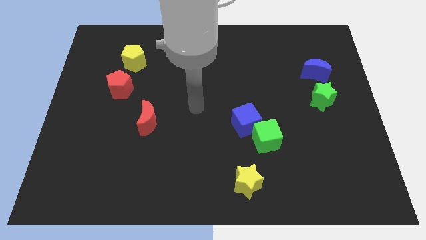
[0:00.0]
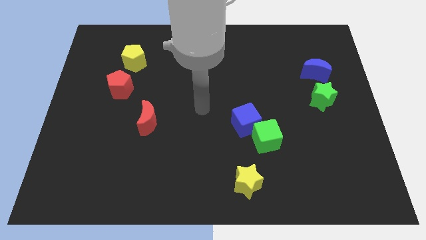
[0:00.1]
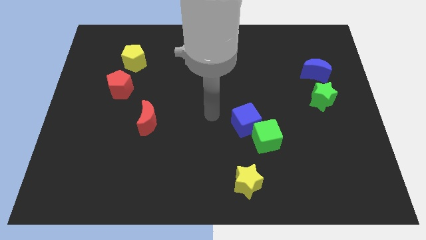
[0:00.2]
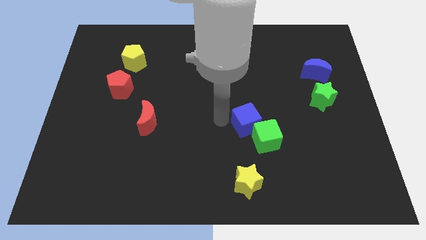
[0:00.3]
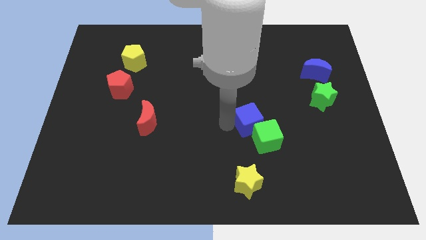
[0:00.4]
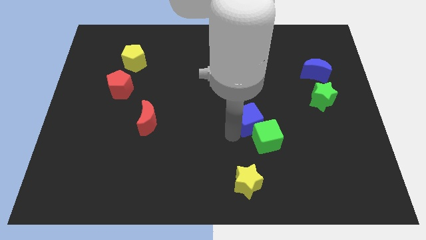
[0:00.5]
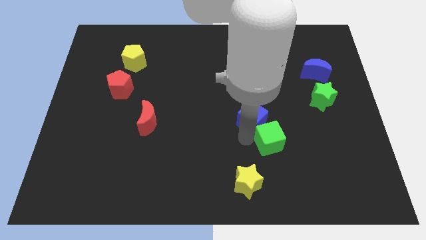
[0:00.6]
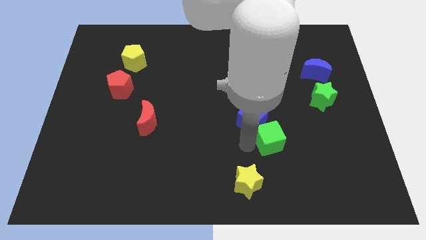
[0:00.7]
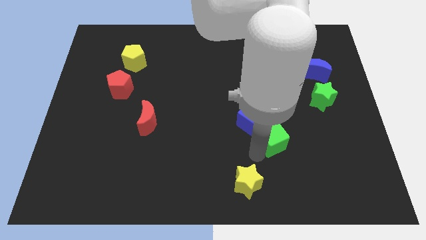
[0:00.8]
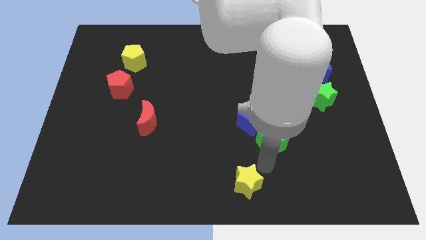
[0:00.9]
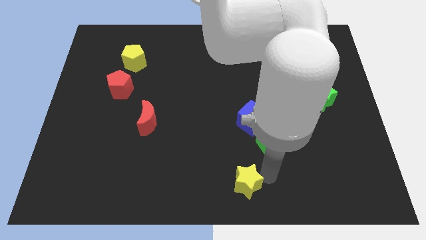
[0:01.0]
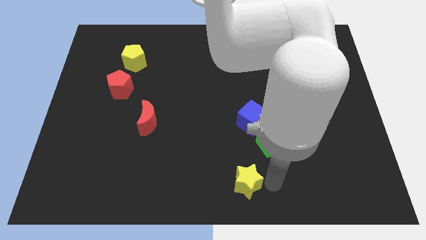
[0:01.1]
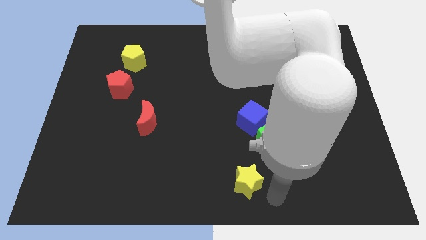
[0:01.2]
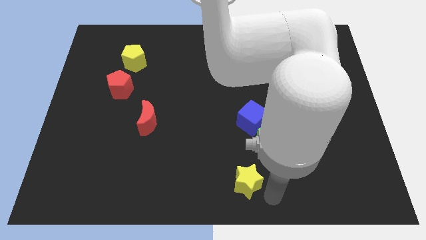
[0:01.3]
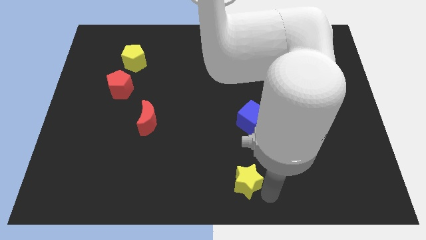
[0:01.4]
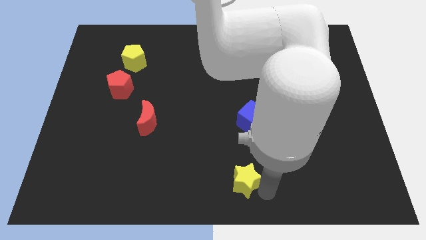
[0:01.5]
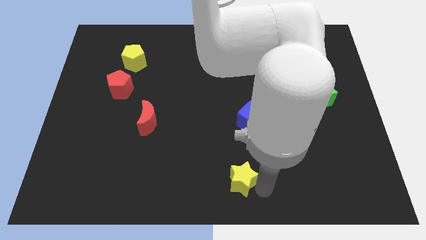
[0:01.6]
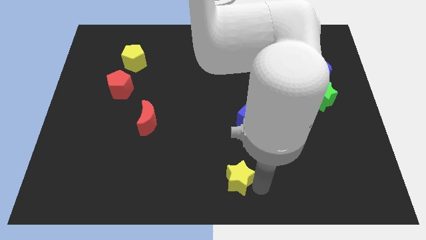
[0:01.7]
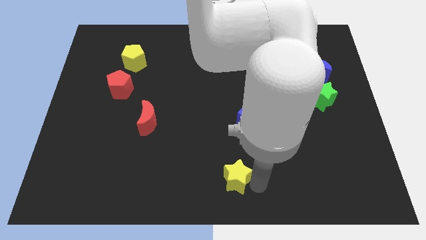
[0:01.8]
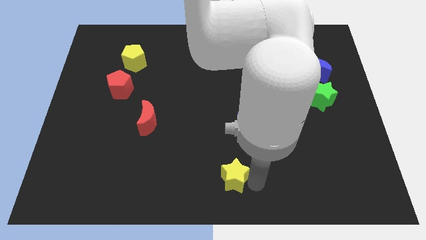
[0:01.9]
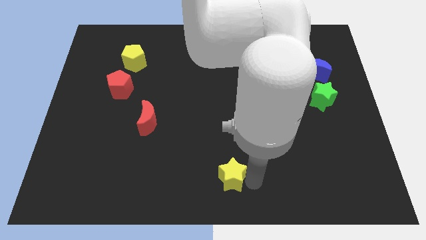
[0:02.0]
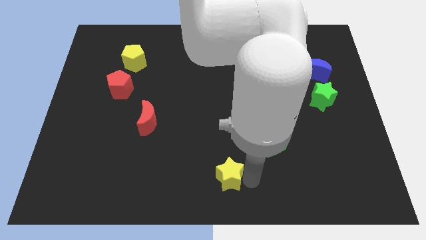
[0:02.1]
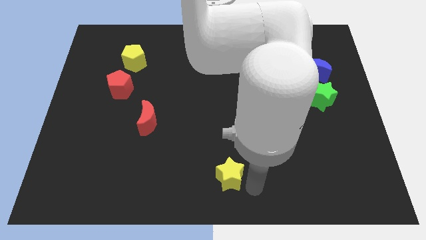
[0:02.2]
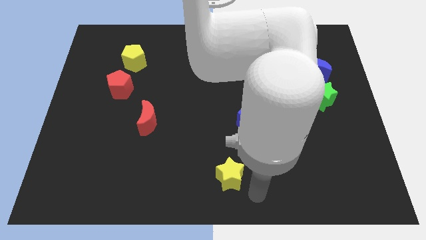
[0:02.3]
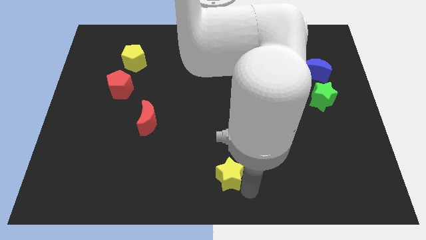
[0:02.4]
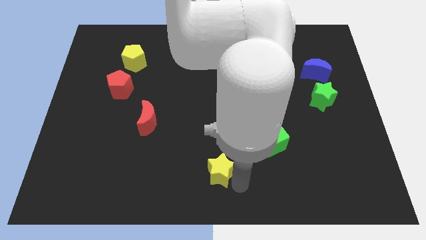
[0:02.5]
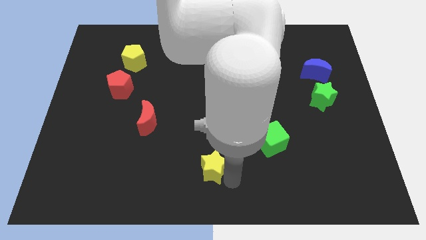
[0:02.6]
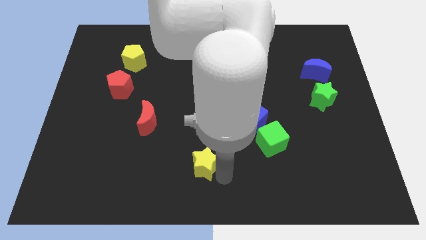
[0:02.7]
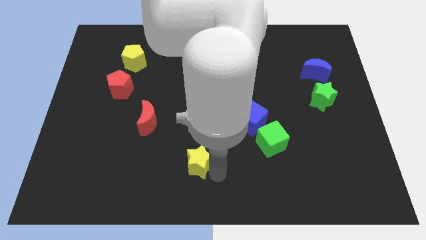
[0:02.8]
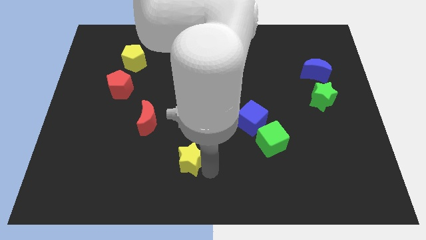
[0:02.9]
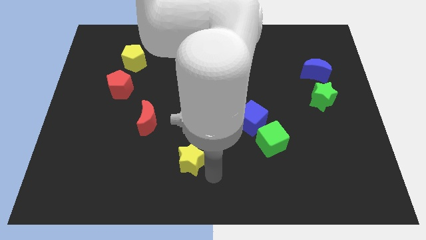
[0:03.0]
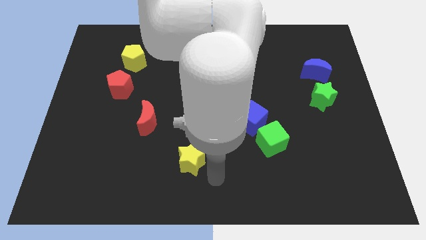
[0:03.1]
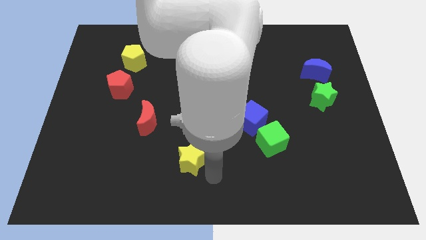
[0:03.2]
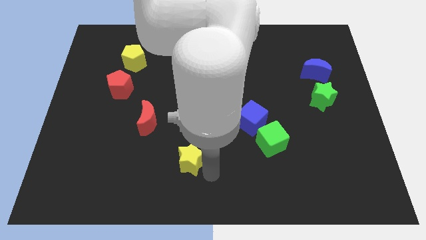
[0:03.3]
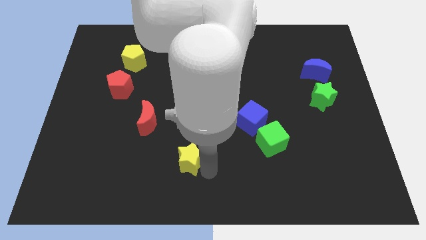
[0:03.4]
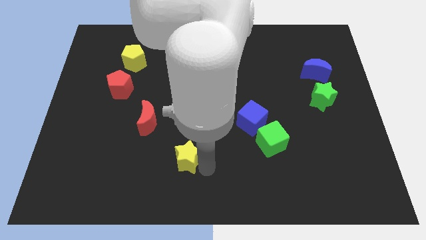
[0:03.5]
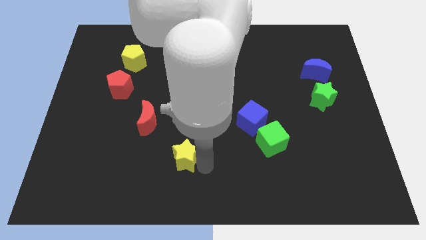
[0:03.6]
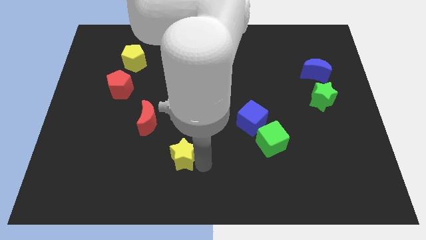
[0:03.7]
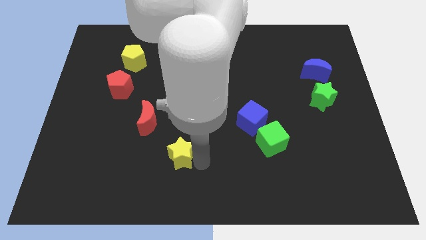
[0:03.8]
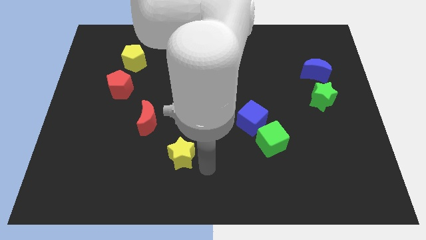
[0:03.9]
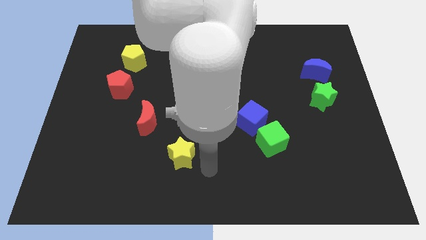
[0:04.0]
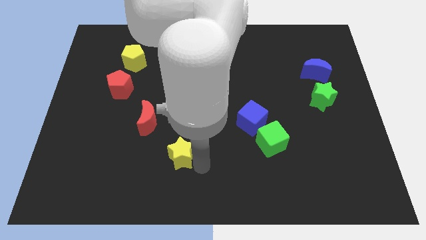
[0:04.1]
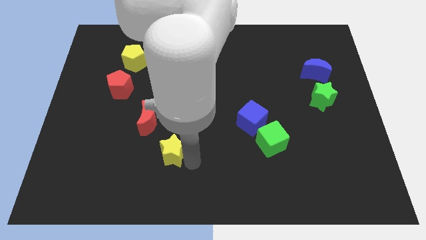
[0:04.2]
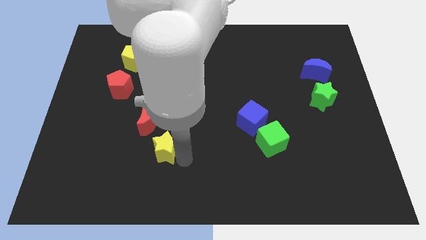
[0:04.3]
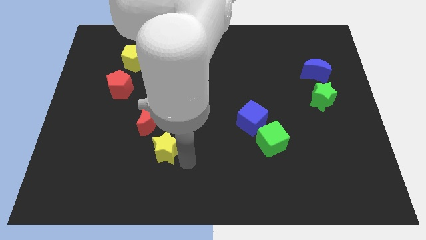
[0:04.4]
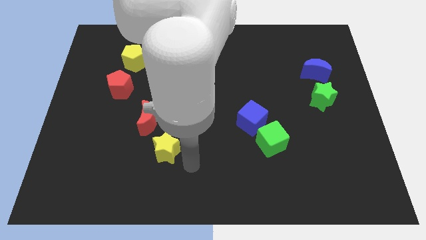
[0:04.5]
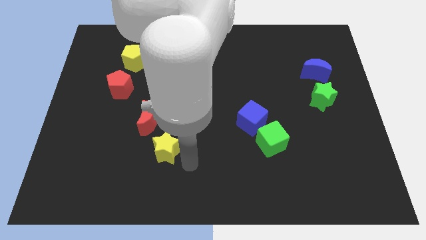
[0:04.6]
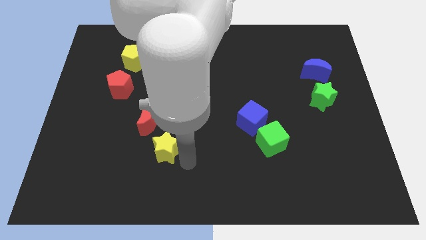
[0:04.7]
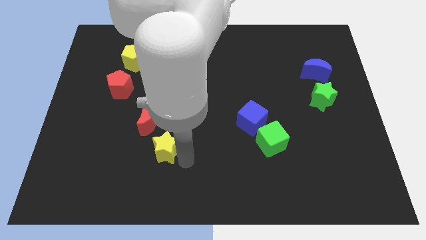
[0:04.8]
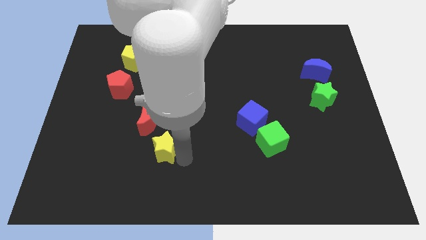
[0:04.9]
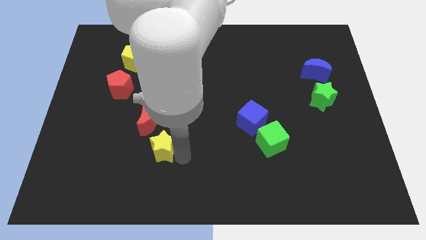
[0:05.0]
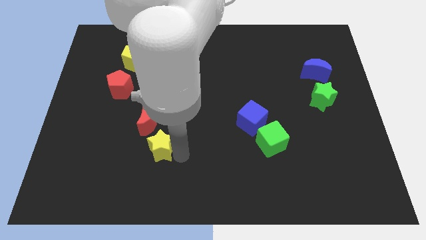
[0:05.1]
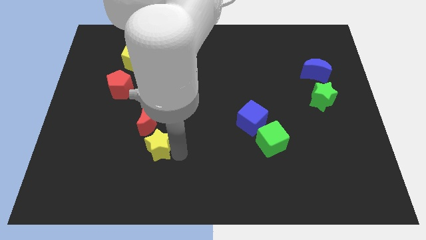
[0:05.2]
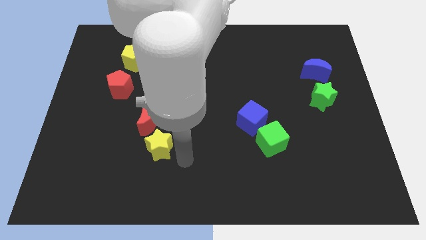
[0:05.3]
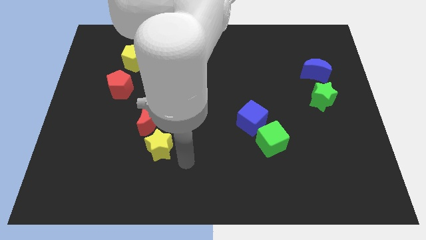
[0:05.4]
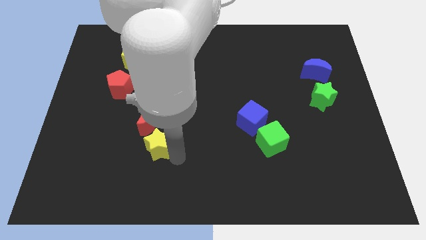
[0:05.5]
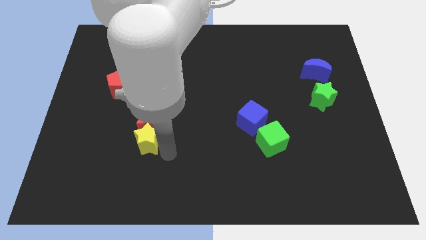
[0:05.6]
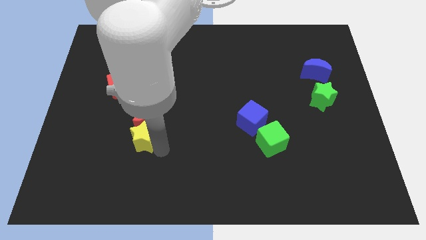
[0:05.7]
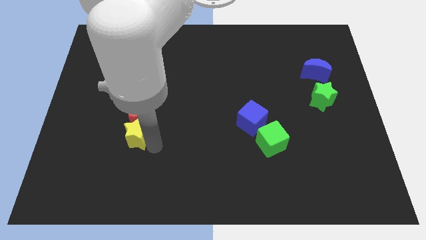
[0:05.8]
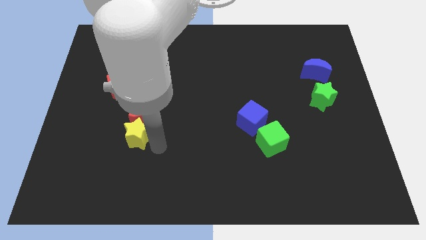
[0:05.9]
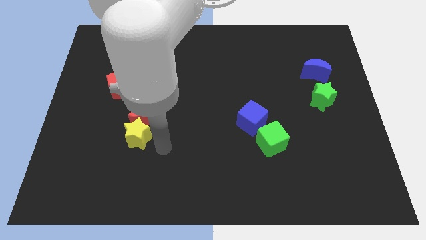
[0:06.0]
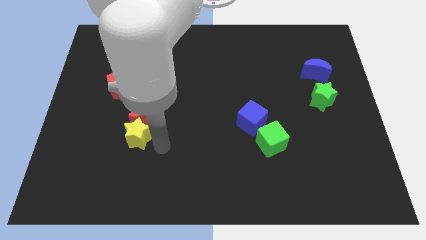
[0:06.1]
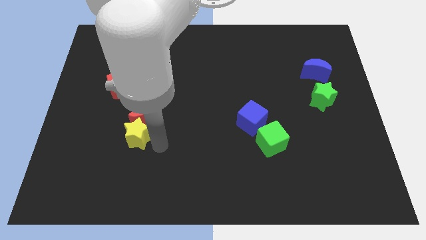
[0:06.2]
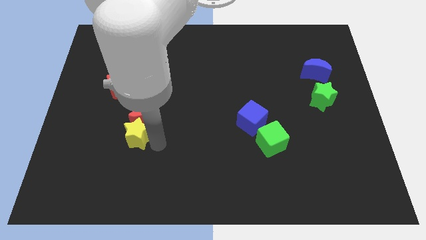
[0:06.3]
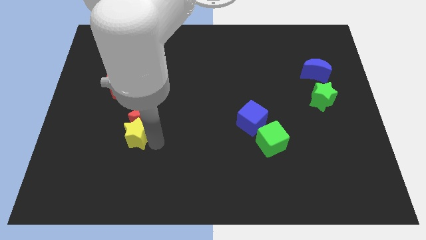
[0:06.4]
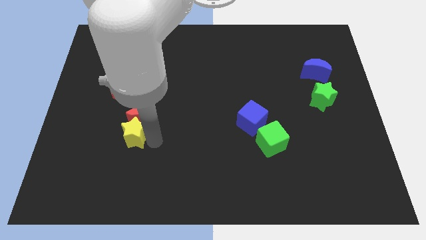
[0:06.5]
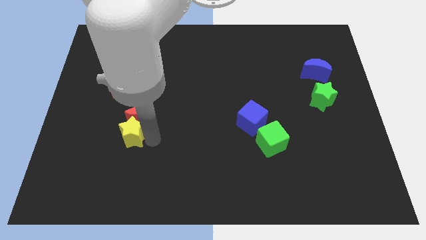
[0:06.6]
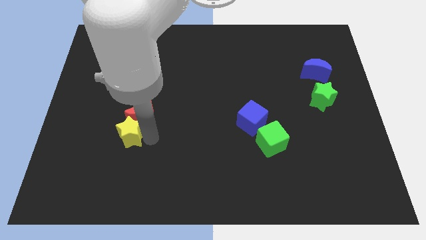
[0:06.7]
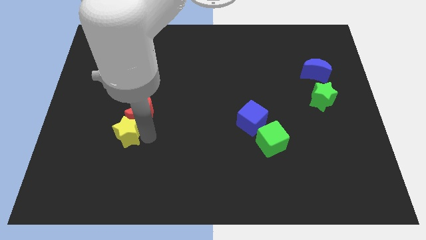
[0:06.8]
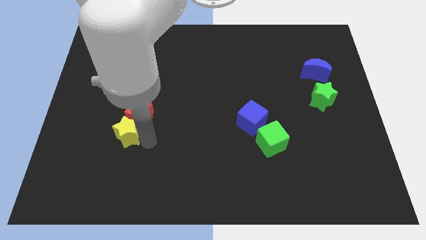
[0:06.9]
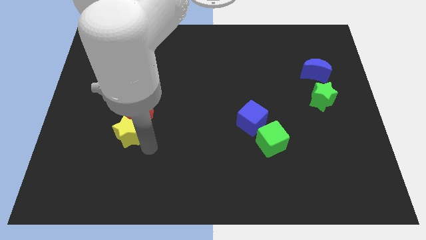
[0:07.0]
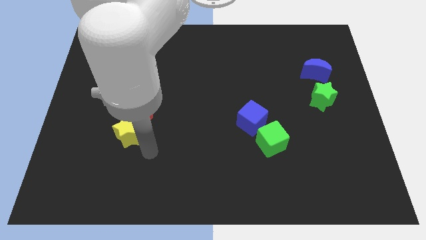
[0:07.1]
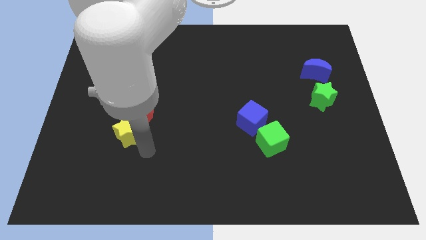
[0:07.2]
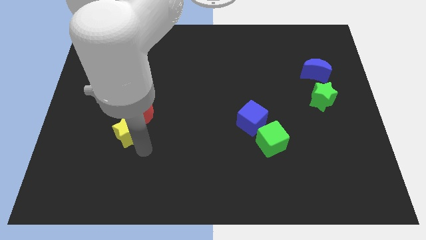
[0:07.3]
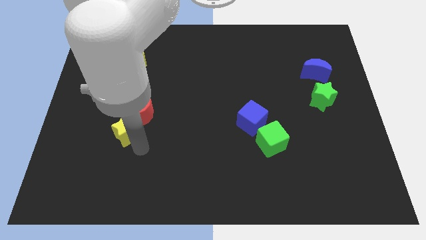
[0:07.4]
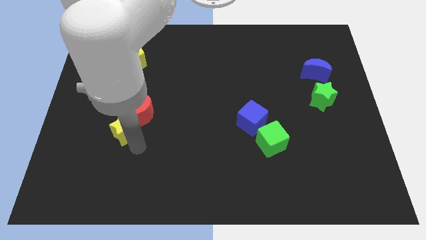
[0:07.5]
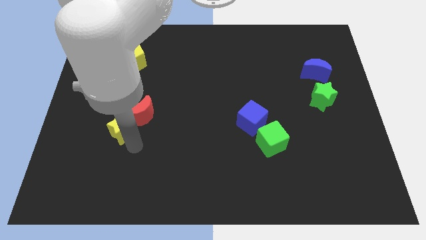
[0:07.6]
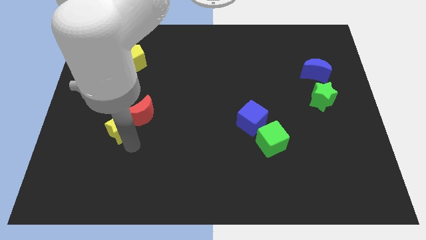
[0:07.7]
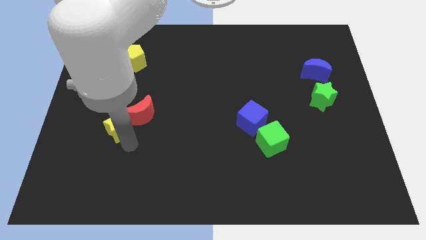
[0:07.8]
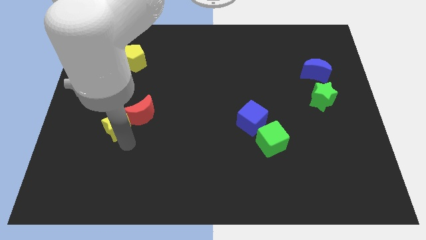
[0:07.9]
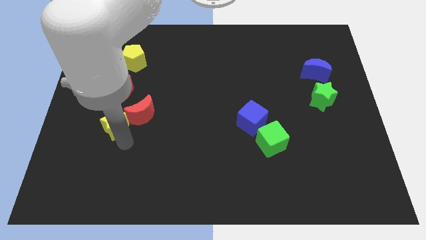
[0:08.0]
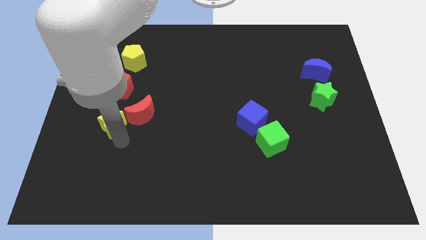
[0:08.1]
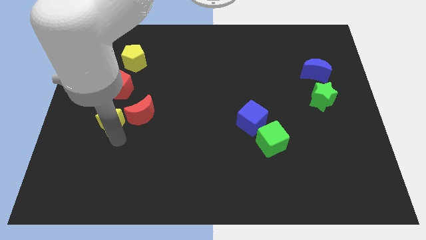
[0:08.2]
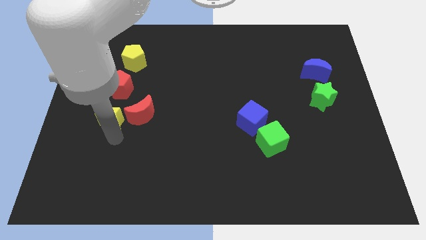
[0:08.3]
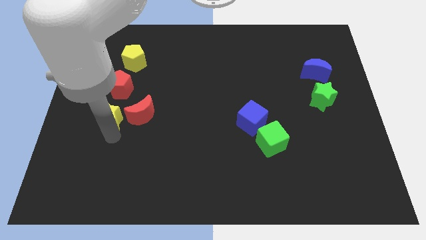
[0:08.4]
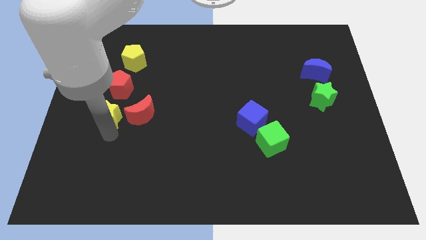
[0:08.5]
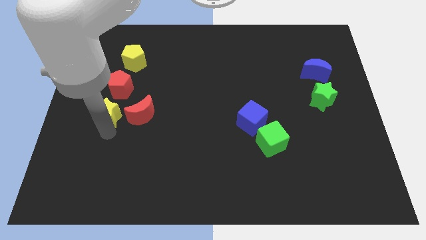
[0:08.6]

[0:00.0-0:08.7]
push the yellow star to the bottom left of the red pentagon
